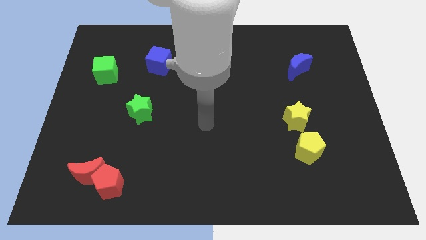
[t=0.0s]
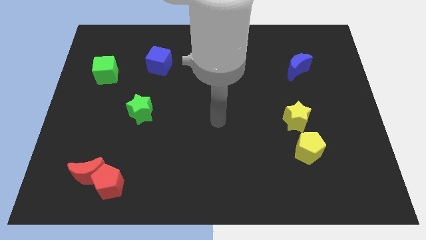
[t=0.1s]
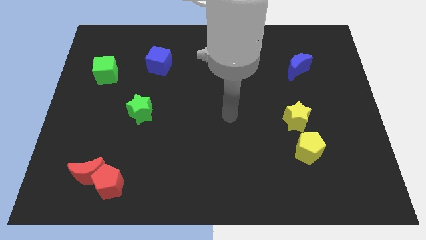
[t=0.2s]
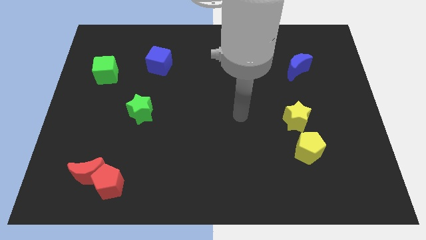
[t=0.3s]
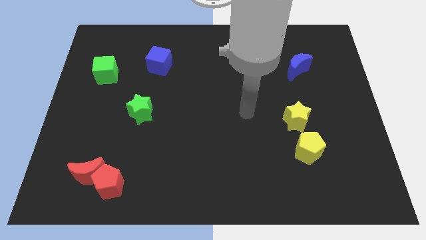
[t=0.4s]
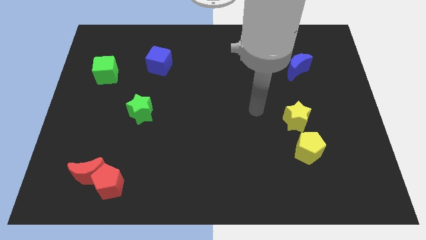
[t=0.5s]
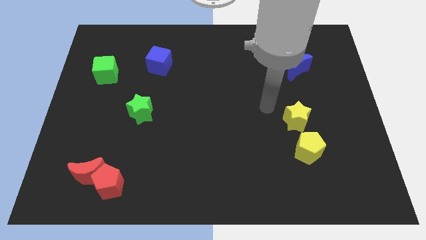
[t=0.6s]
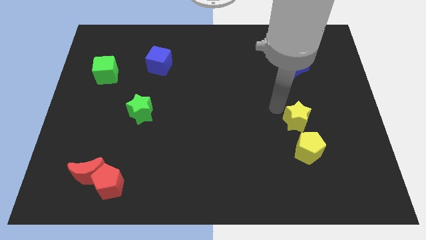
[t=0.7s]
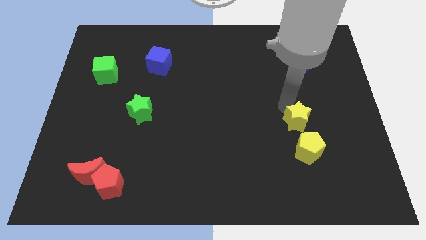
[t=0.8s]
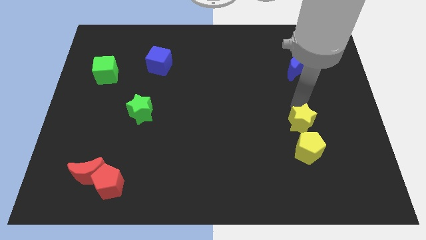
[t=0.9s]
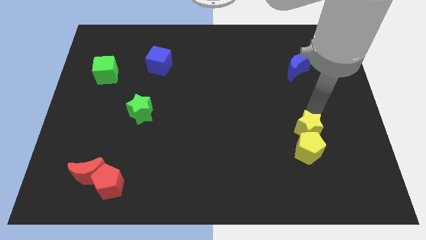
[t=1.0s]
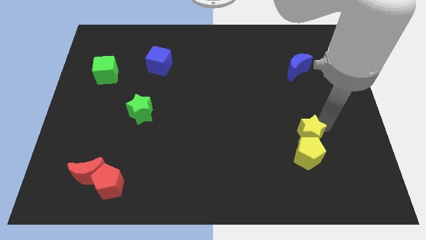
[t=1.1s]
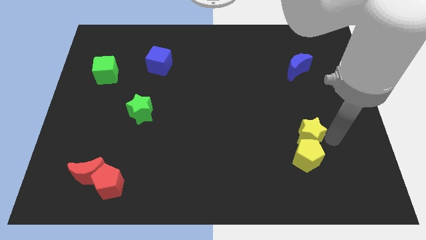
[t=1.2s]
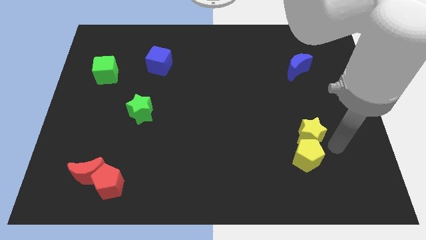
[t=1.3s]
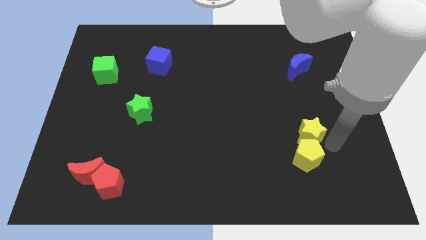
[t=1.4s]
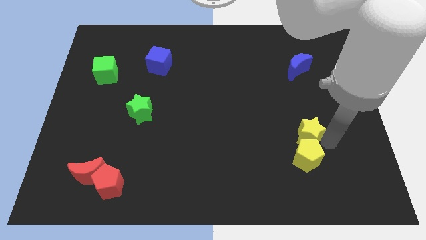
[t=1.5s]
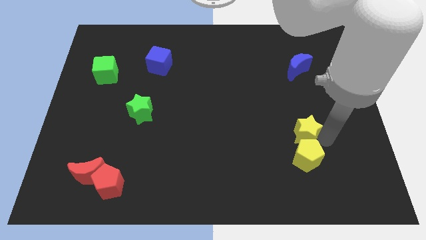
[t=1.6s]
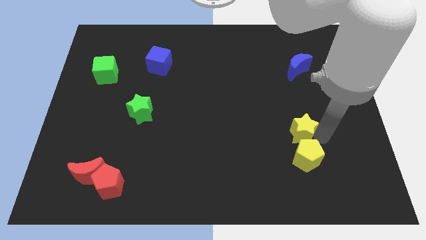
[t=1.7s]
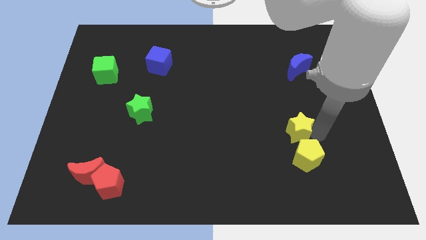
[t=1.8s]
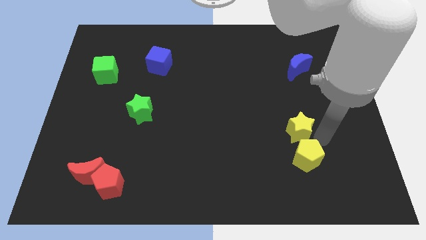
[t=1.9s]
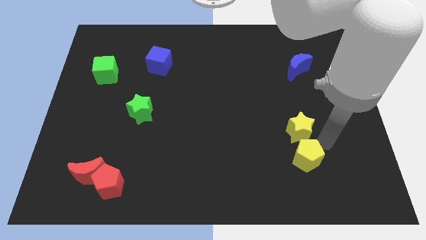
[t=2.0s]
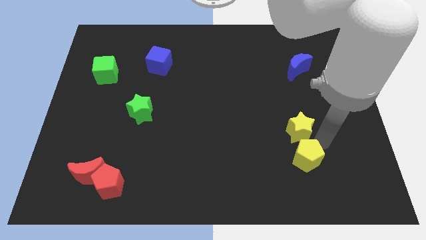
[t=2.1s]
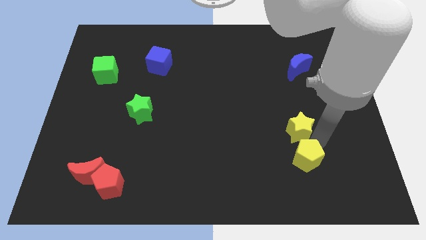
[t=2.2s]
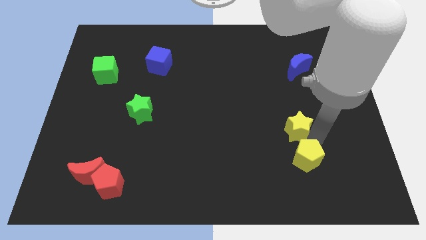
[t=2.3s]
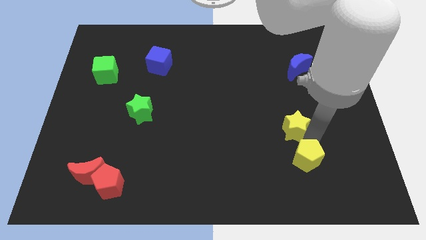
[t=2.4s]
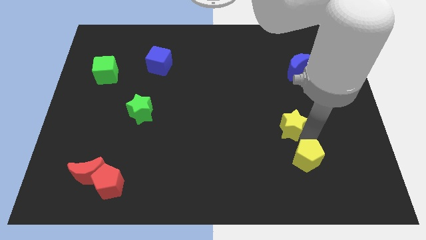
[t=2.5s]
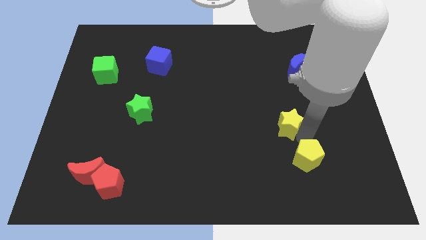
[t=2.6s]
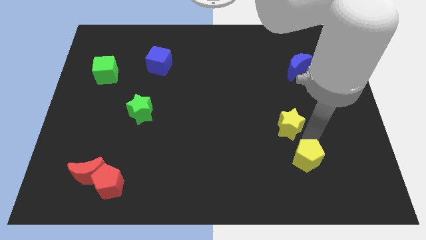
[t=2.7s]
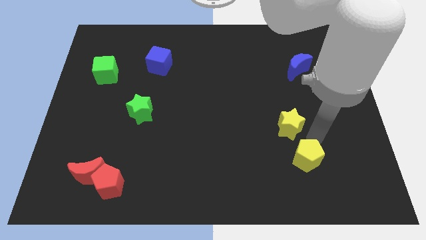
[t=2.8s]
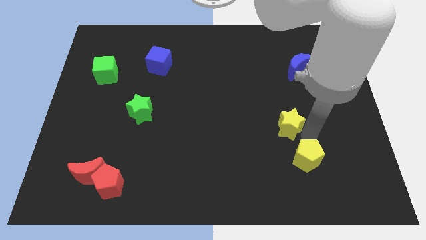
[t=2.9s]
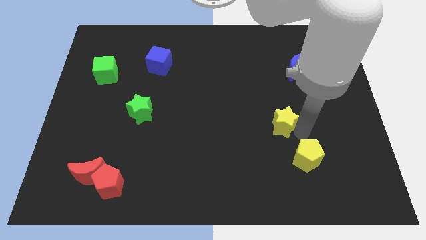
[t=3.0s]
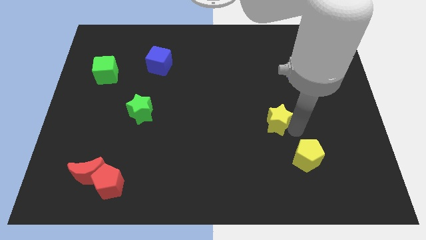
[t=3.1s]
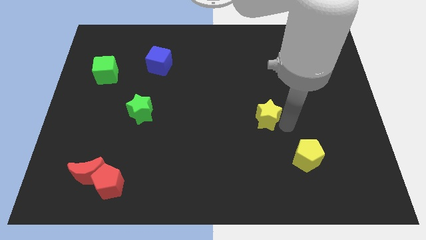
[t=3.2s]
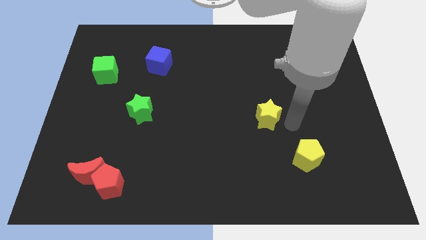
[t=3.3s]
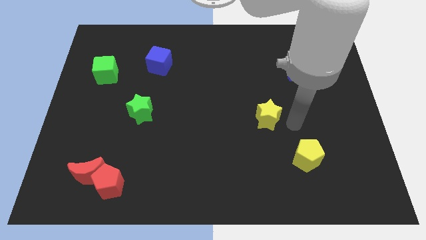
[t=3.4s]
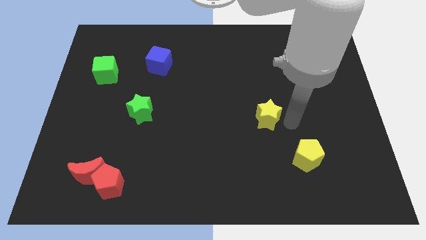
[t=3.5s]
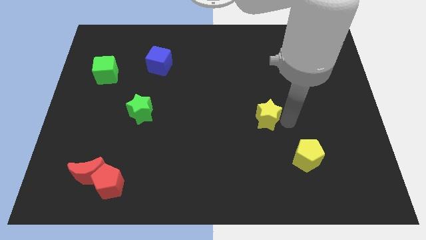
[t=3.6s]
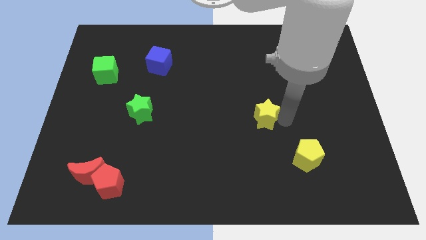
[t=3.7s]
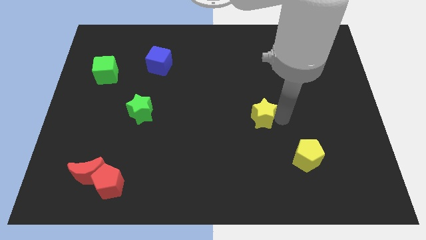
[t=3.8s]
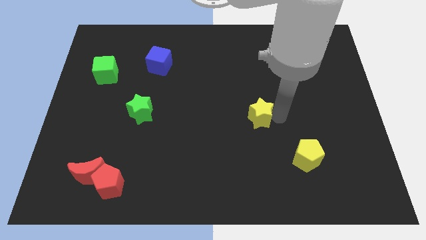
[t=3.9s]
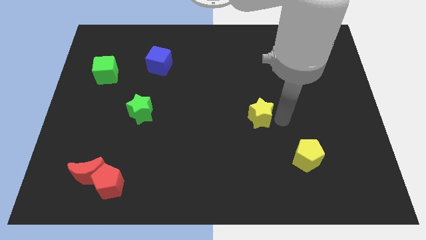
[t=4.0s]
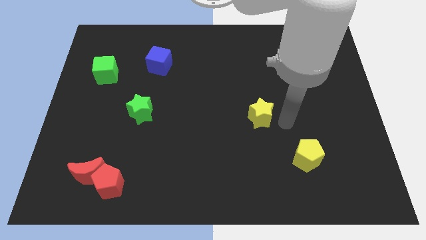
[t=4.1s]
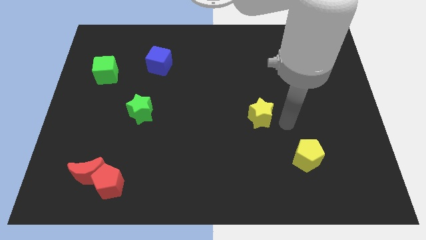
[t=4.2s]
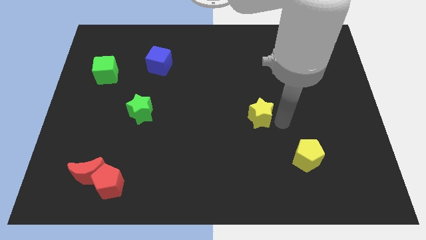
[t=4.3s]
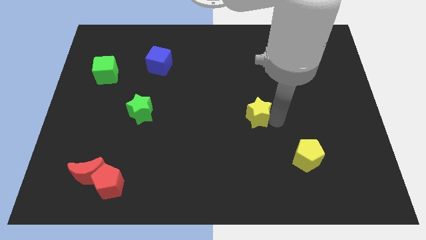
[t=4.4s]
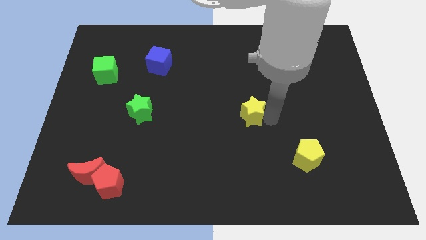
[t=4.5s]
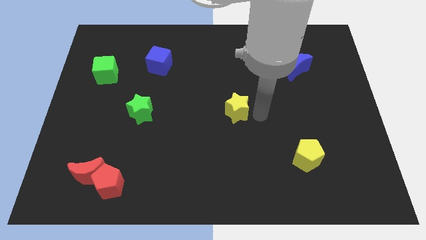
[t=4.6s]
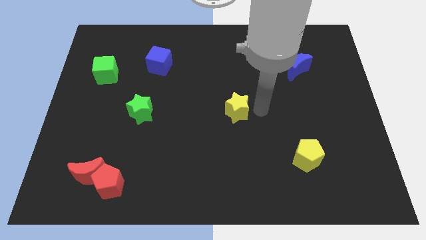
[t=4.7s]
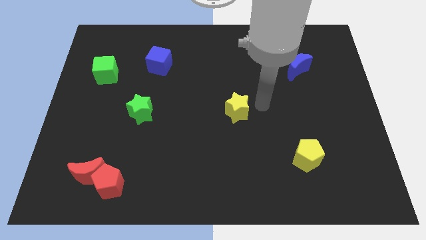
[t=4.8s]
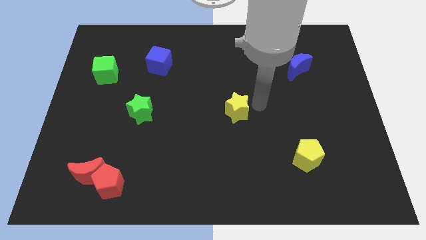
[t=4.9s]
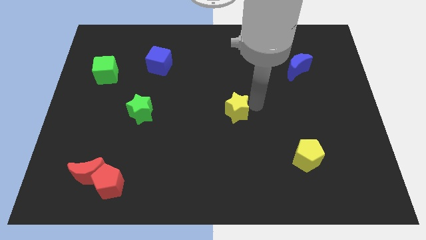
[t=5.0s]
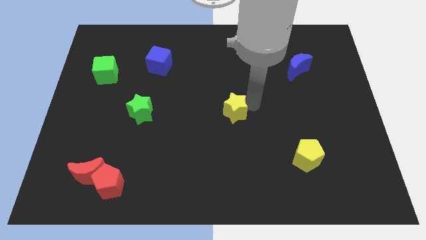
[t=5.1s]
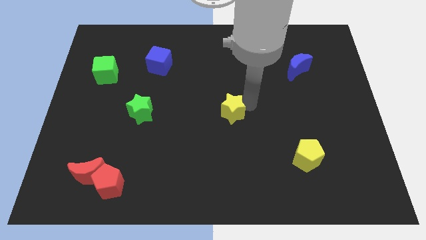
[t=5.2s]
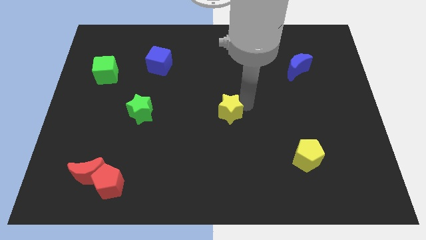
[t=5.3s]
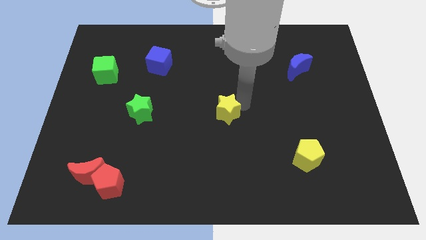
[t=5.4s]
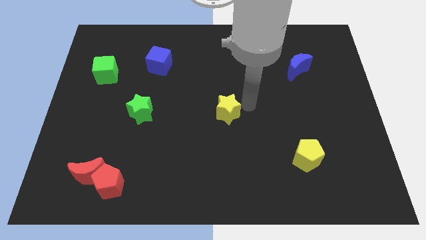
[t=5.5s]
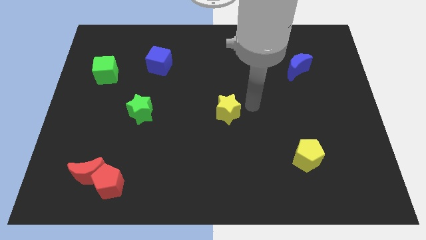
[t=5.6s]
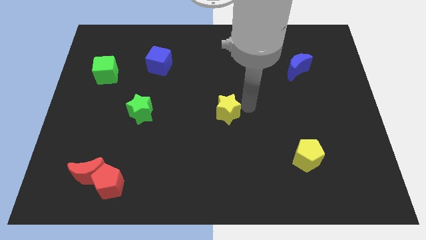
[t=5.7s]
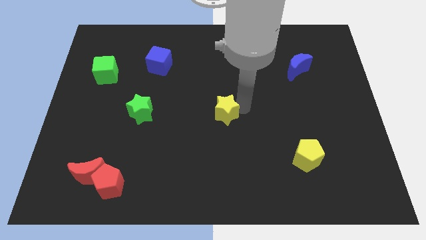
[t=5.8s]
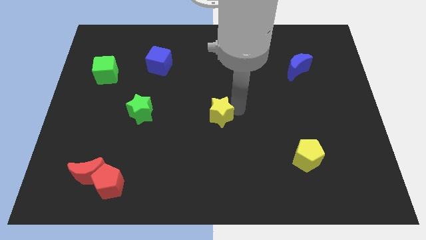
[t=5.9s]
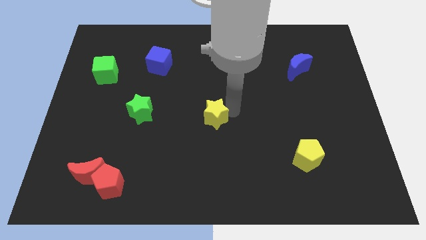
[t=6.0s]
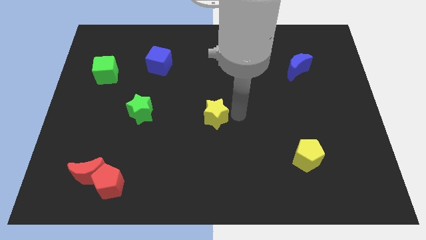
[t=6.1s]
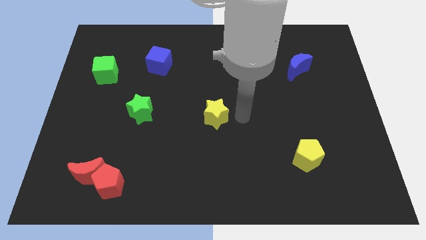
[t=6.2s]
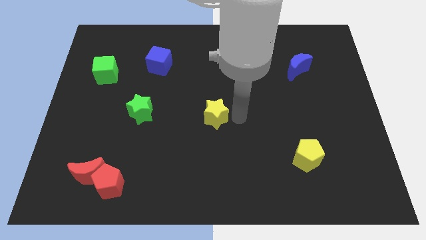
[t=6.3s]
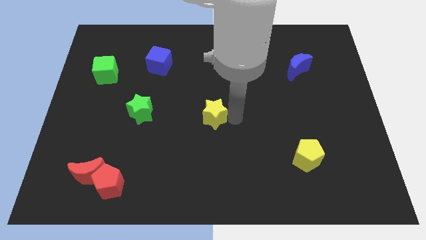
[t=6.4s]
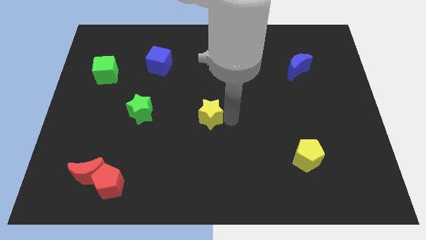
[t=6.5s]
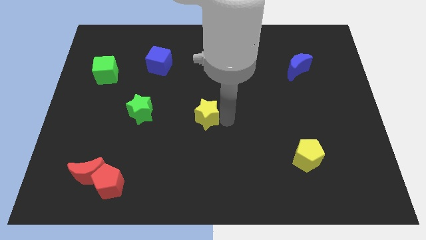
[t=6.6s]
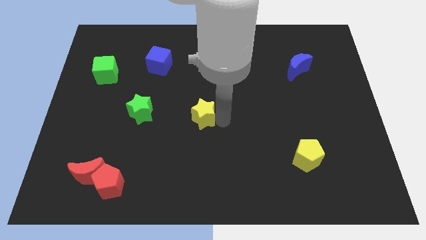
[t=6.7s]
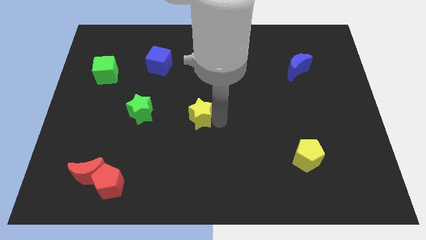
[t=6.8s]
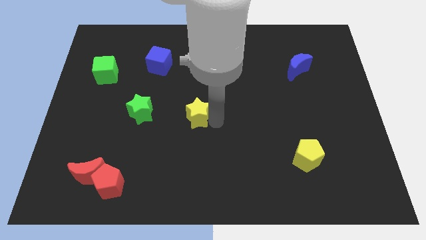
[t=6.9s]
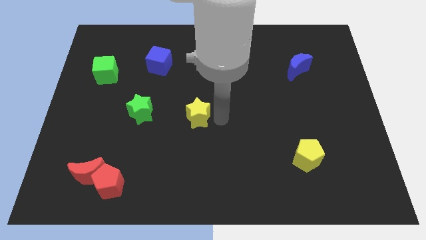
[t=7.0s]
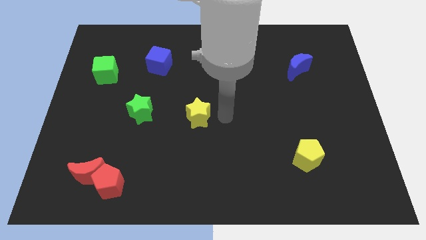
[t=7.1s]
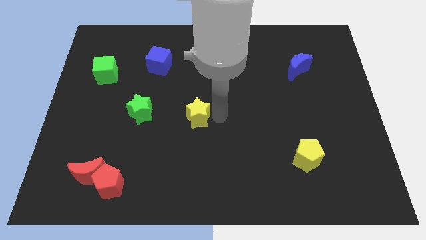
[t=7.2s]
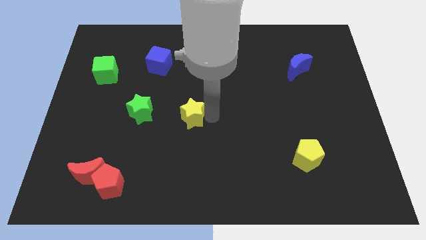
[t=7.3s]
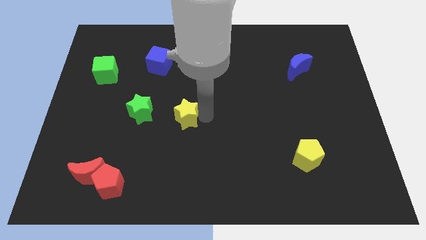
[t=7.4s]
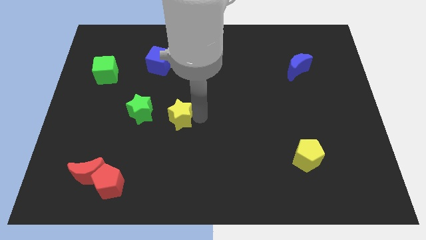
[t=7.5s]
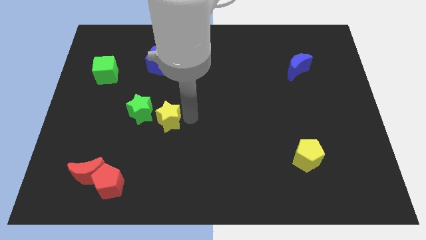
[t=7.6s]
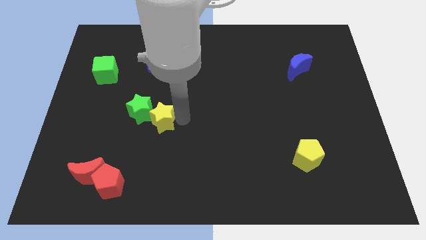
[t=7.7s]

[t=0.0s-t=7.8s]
slide the yellow star next to the green star
